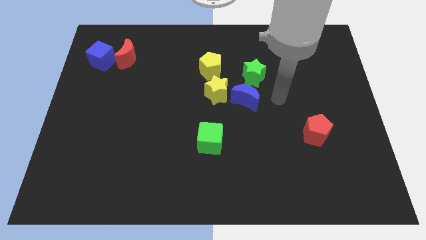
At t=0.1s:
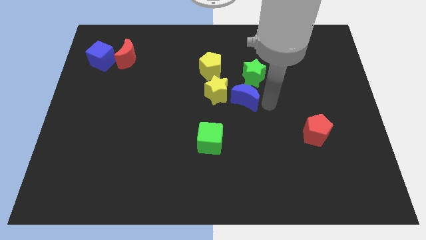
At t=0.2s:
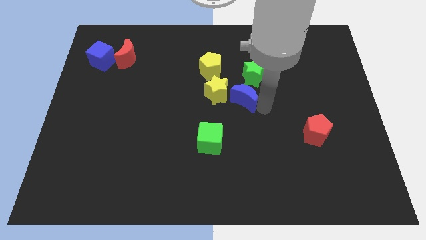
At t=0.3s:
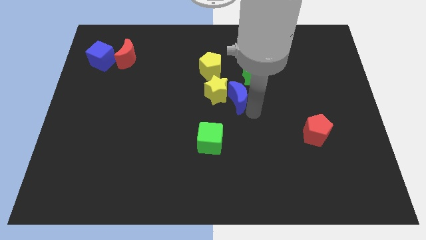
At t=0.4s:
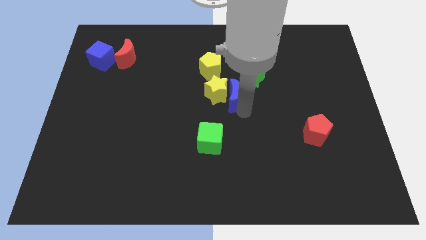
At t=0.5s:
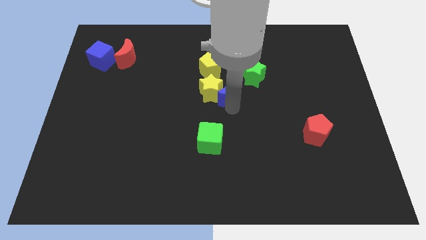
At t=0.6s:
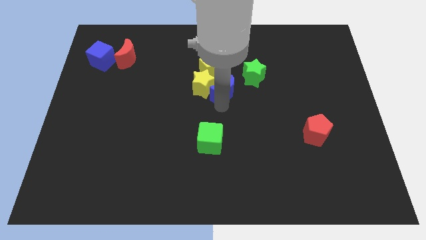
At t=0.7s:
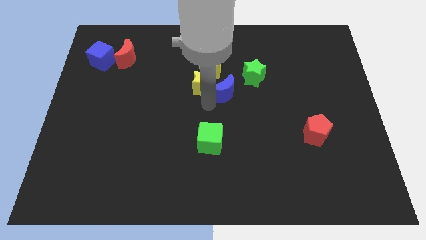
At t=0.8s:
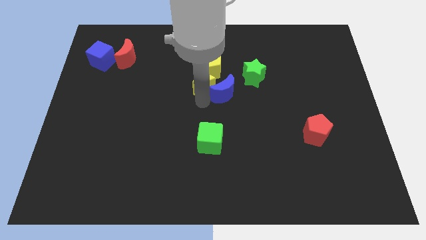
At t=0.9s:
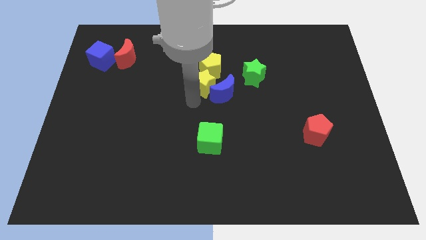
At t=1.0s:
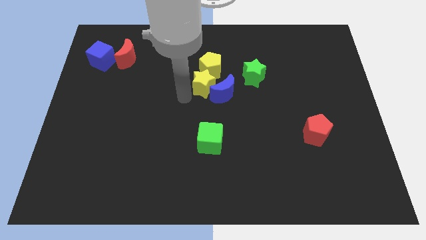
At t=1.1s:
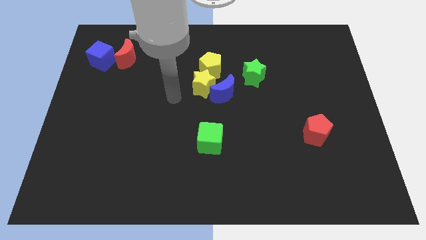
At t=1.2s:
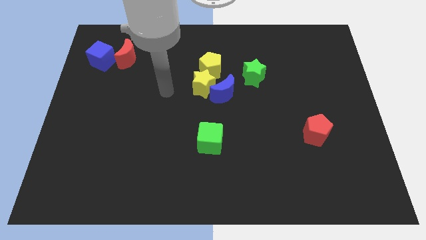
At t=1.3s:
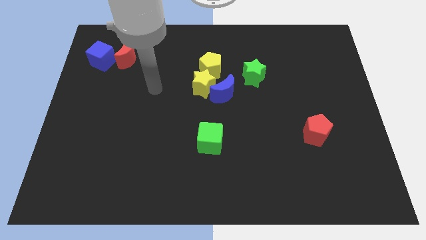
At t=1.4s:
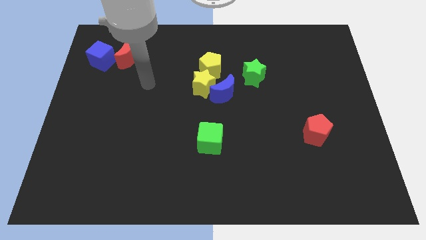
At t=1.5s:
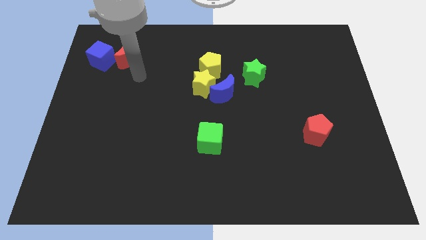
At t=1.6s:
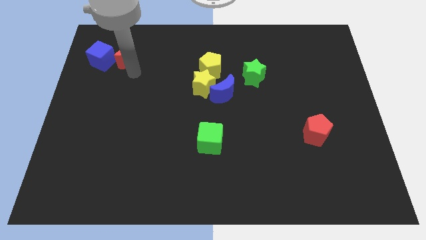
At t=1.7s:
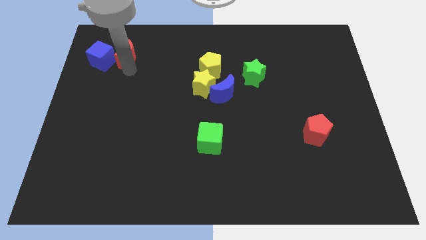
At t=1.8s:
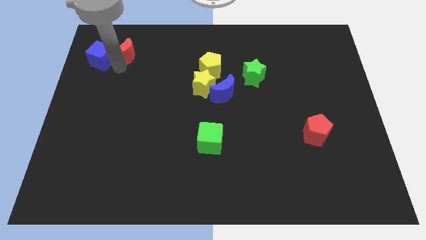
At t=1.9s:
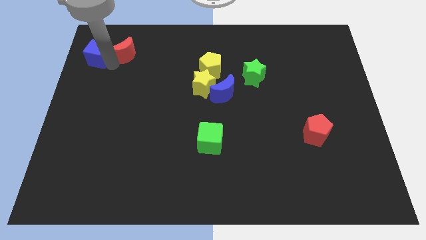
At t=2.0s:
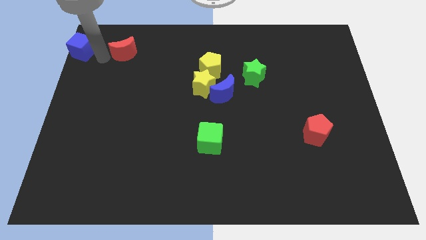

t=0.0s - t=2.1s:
move the red moon away from the blue cube

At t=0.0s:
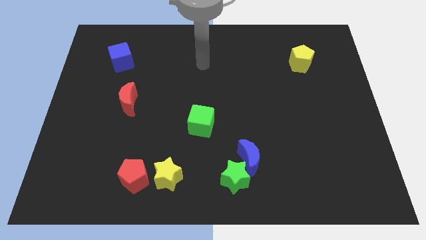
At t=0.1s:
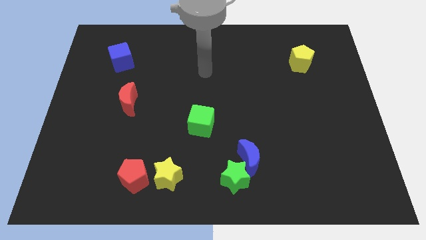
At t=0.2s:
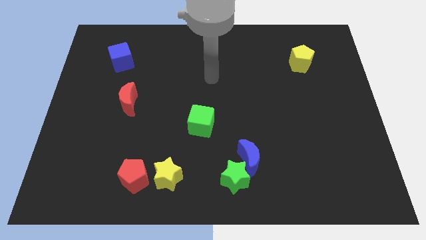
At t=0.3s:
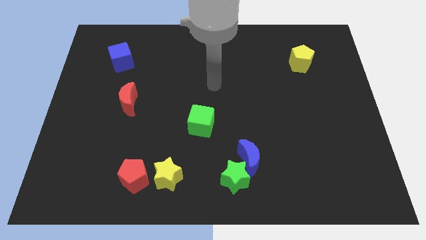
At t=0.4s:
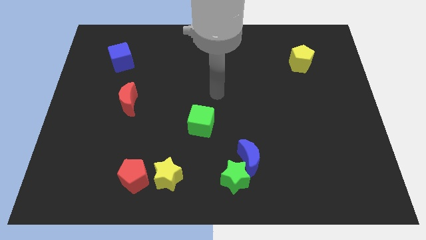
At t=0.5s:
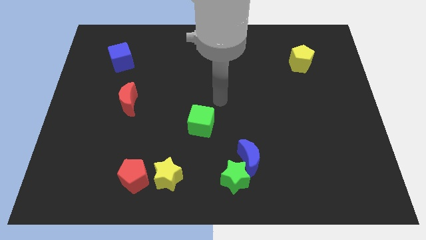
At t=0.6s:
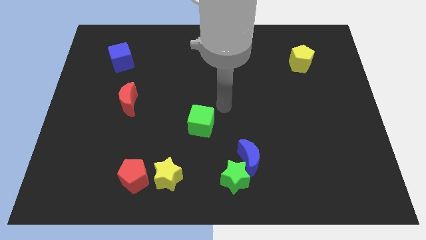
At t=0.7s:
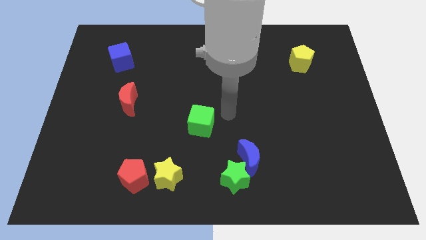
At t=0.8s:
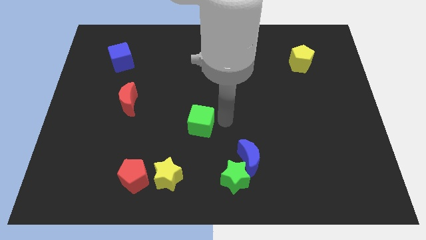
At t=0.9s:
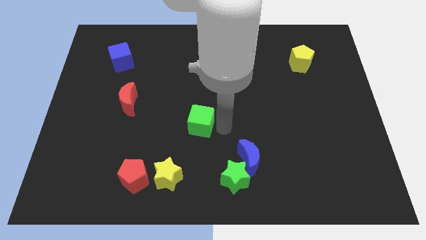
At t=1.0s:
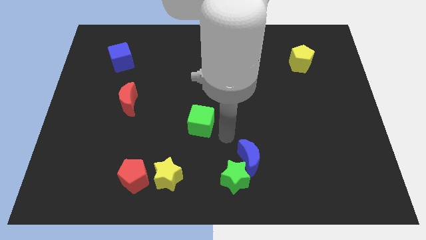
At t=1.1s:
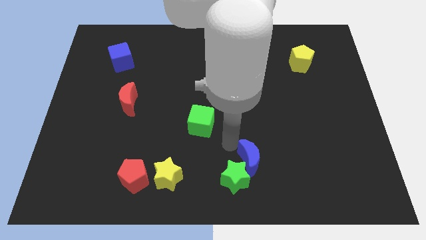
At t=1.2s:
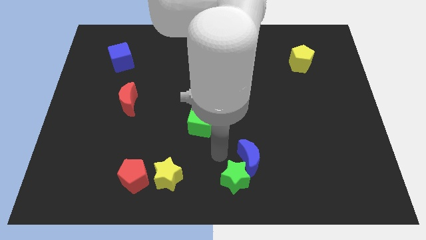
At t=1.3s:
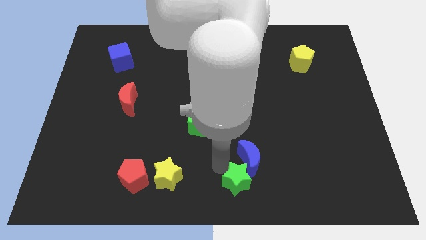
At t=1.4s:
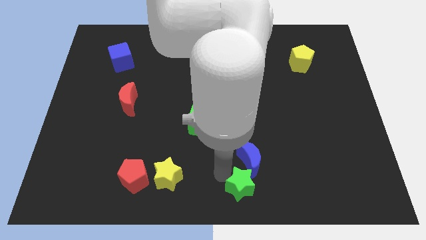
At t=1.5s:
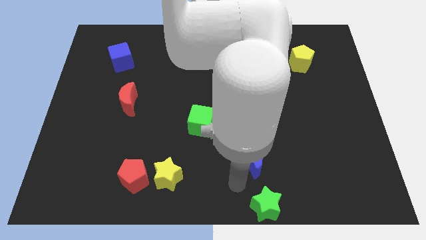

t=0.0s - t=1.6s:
separate the blue moon from the green star

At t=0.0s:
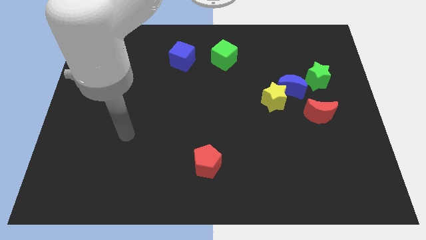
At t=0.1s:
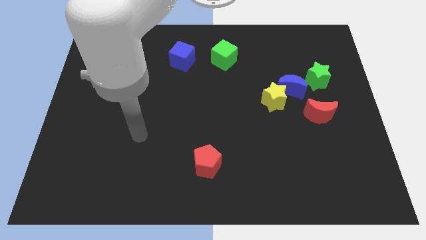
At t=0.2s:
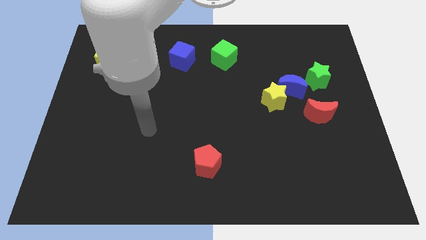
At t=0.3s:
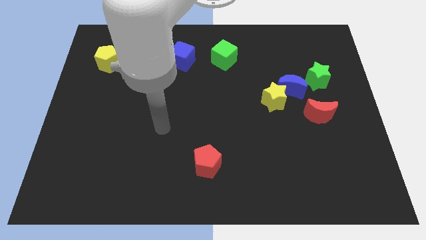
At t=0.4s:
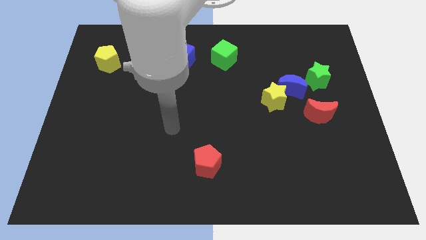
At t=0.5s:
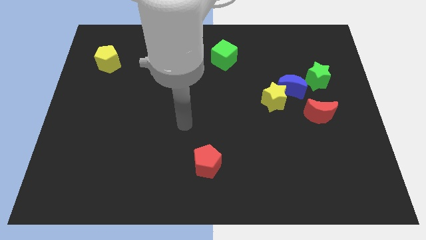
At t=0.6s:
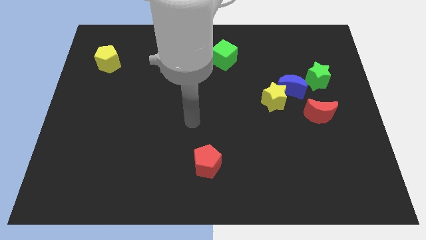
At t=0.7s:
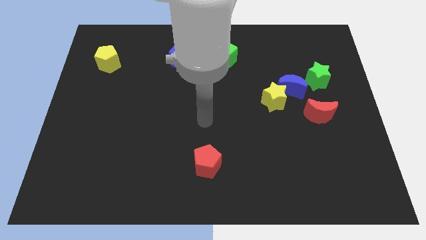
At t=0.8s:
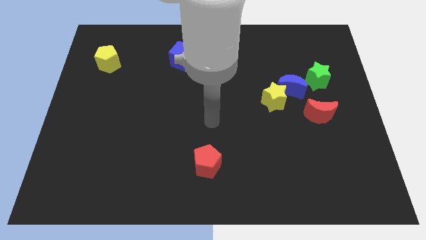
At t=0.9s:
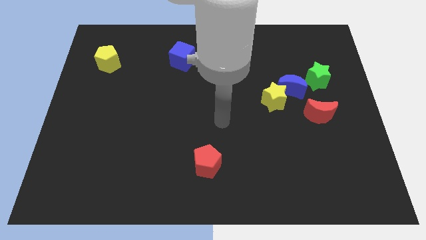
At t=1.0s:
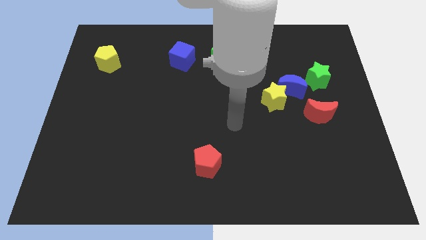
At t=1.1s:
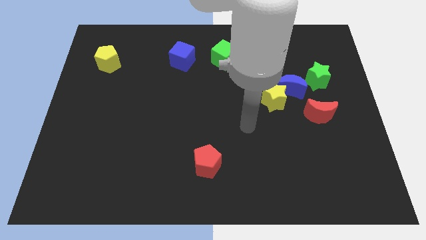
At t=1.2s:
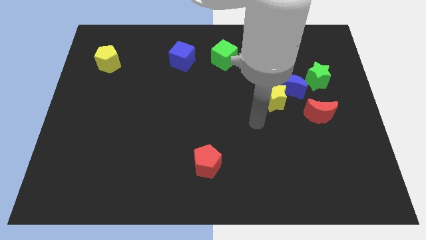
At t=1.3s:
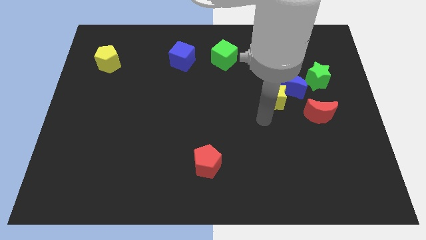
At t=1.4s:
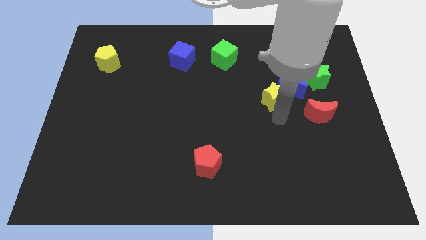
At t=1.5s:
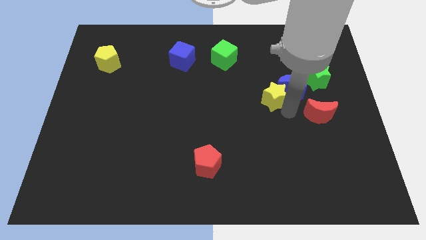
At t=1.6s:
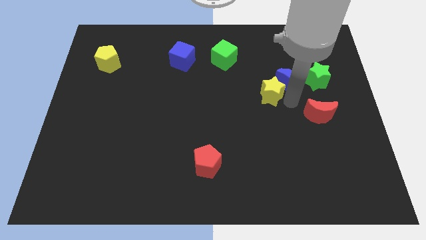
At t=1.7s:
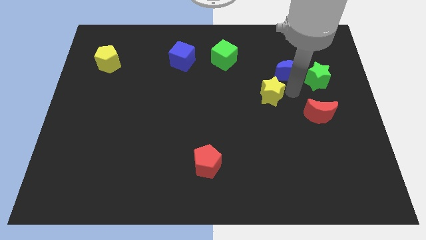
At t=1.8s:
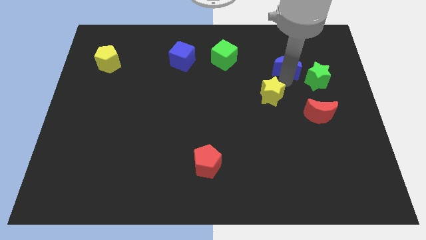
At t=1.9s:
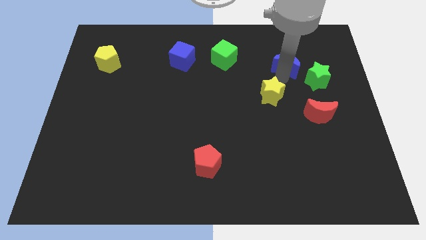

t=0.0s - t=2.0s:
move the yellow star away from the blue moon

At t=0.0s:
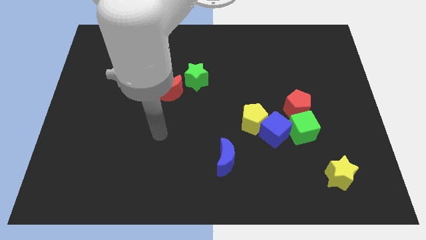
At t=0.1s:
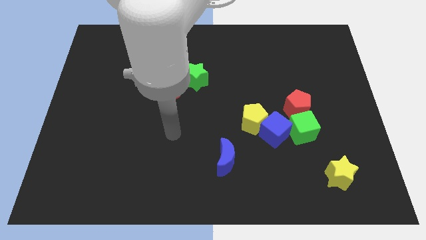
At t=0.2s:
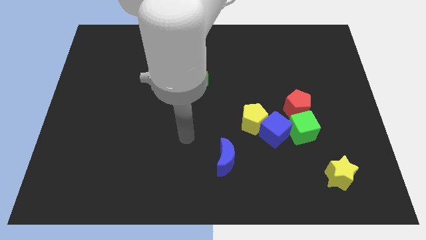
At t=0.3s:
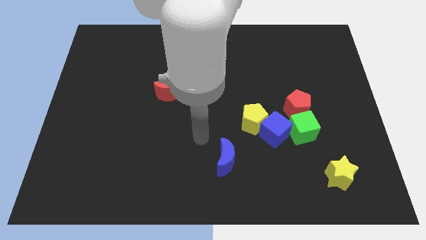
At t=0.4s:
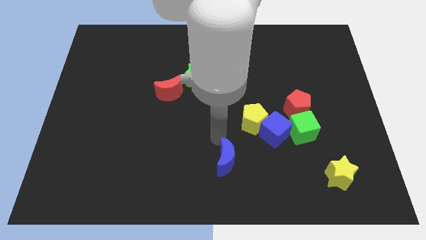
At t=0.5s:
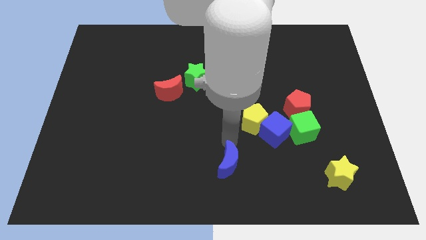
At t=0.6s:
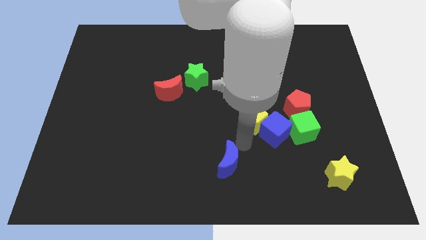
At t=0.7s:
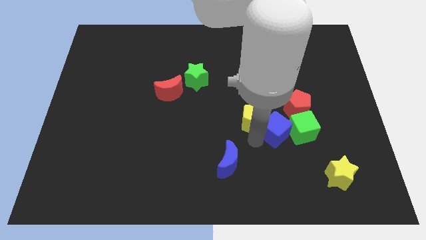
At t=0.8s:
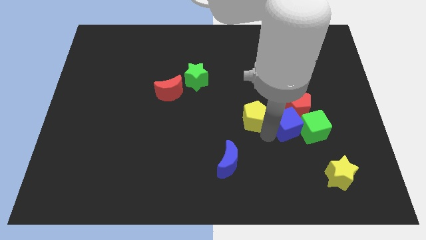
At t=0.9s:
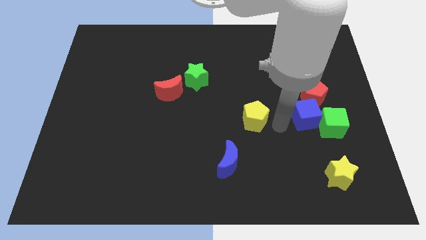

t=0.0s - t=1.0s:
move the yellow pentagon away from the blue cube

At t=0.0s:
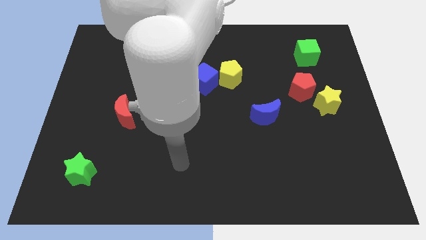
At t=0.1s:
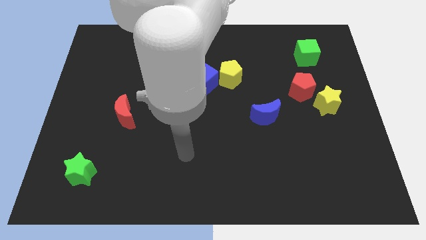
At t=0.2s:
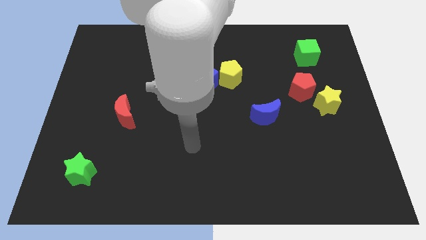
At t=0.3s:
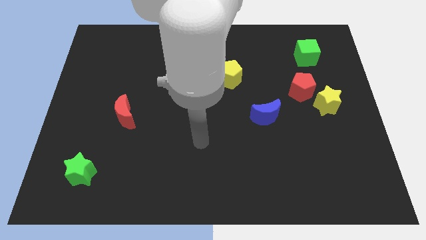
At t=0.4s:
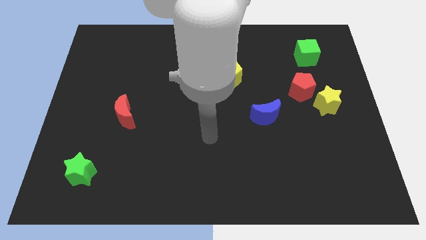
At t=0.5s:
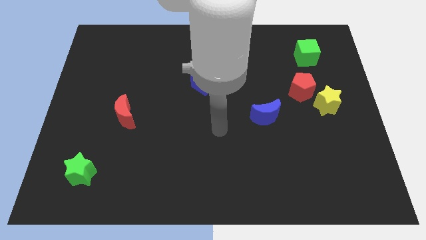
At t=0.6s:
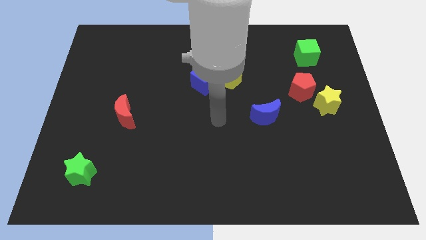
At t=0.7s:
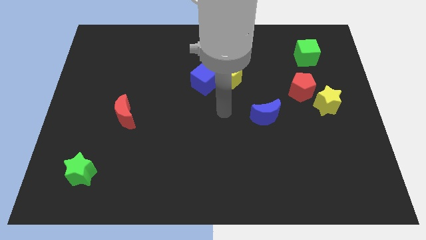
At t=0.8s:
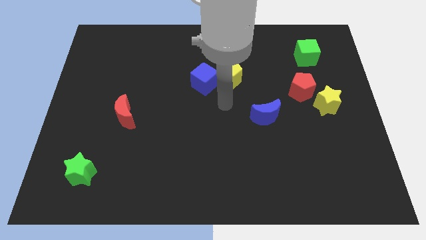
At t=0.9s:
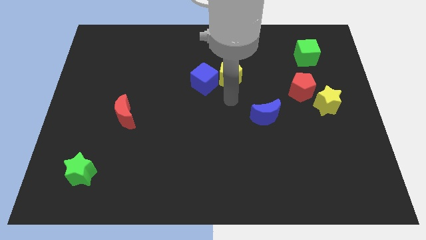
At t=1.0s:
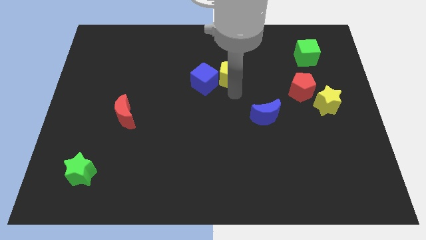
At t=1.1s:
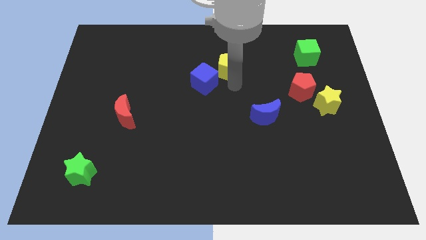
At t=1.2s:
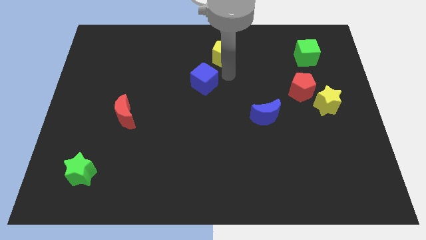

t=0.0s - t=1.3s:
move the blue cube away from the yellow pentagon

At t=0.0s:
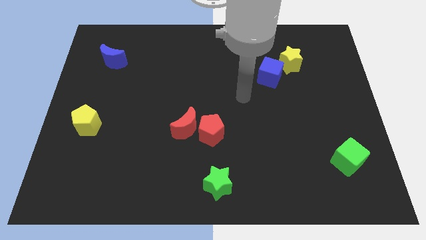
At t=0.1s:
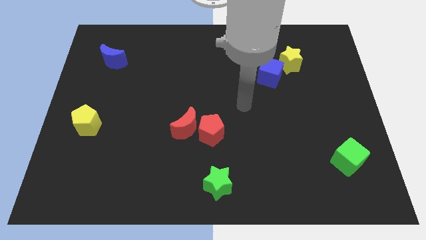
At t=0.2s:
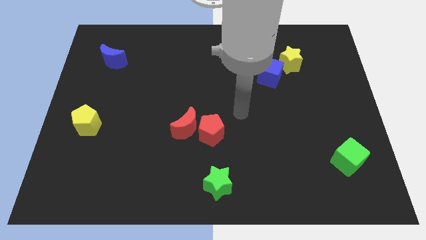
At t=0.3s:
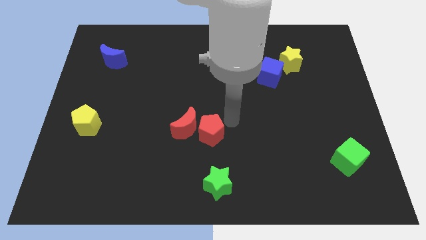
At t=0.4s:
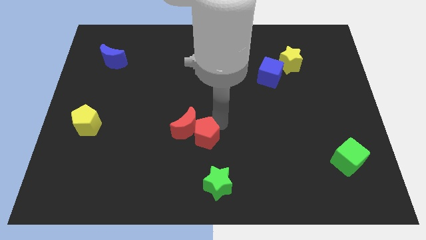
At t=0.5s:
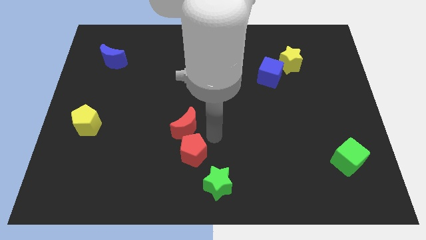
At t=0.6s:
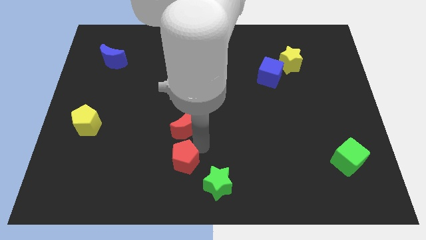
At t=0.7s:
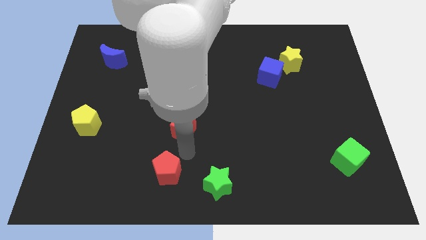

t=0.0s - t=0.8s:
move the red moon away from the red pentagon

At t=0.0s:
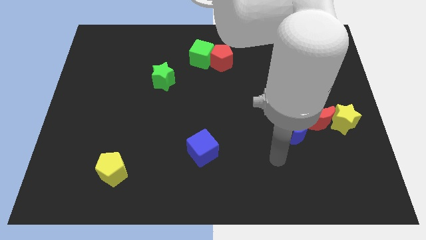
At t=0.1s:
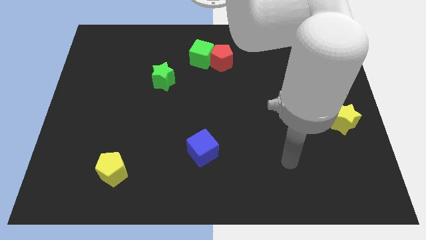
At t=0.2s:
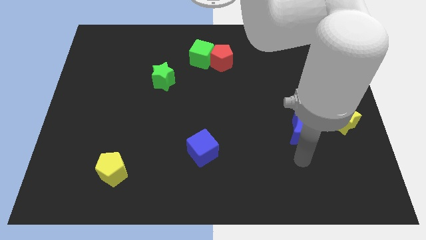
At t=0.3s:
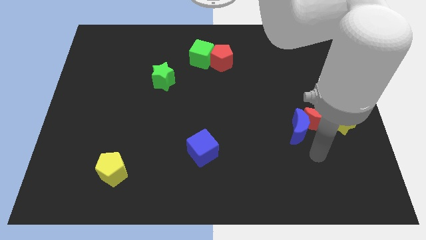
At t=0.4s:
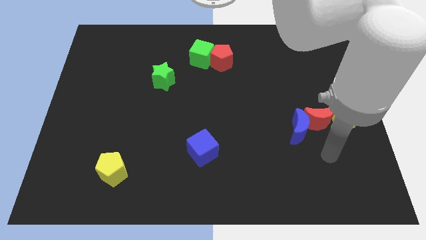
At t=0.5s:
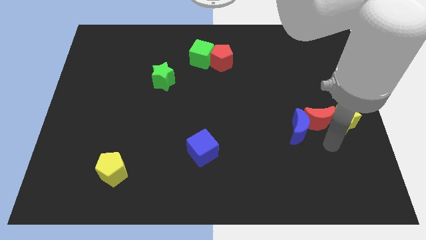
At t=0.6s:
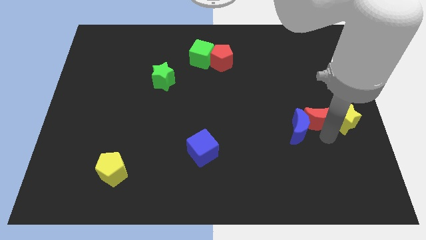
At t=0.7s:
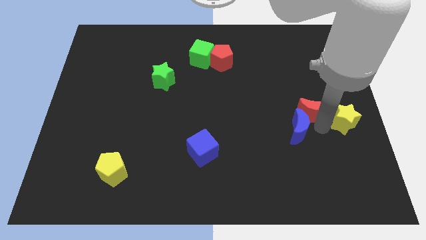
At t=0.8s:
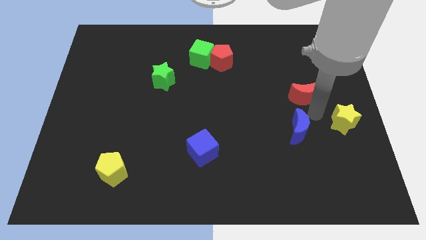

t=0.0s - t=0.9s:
separate the blue moon from the red moon
